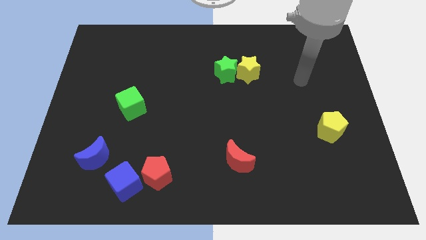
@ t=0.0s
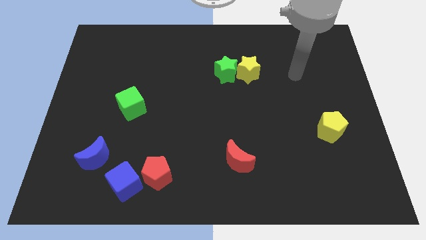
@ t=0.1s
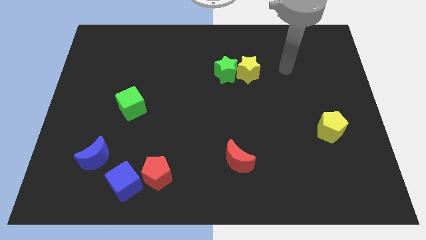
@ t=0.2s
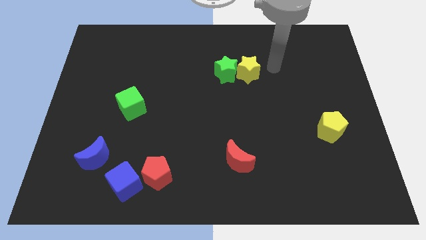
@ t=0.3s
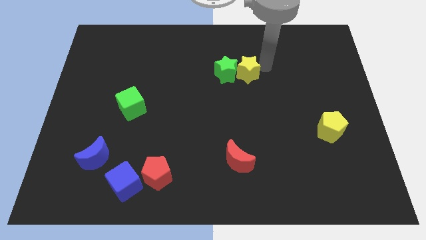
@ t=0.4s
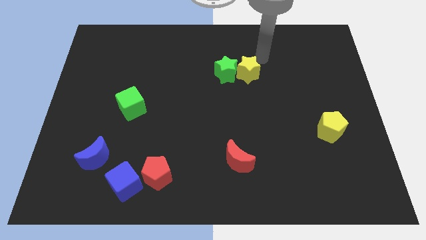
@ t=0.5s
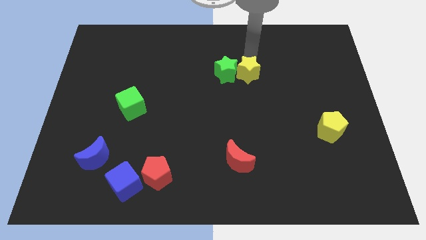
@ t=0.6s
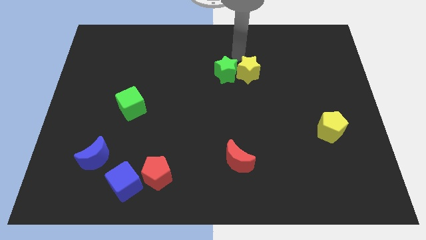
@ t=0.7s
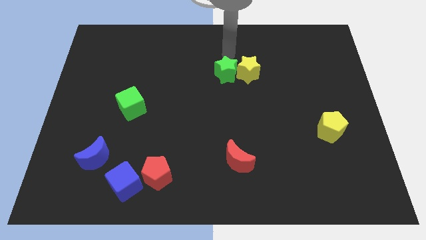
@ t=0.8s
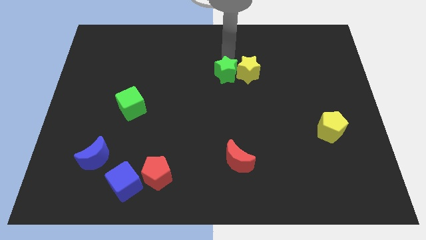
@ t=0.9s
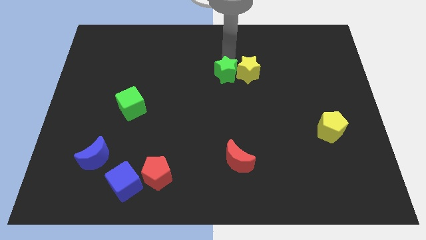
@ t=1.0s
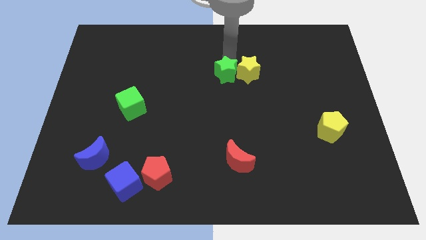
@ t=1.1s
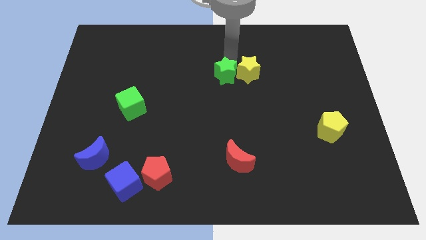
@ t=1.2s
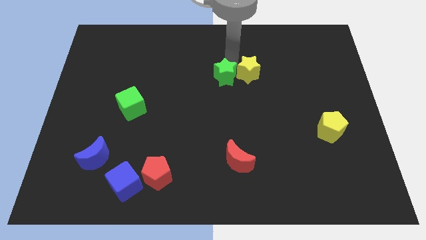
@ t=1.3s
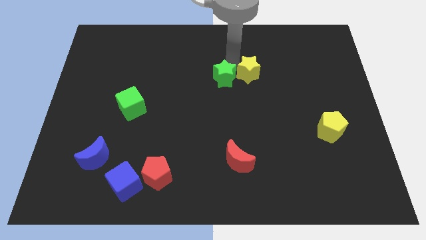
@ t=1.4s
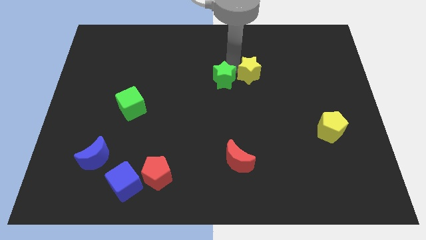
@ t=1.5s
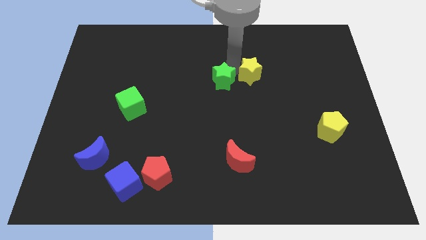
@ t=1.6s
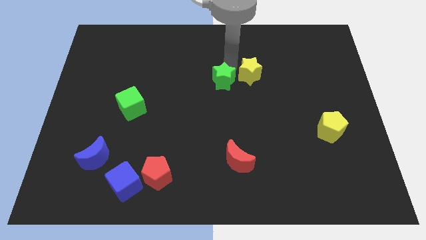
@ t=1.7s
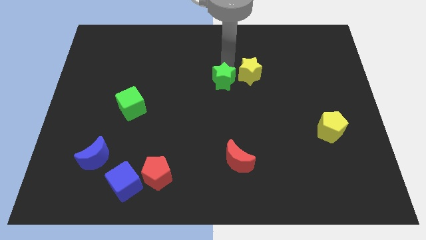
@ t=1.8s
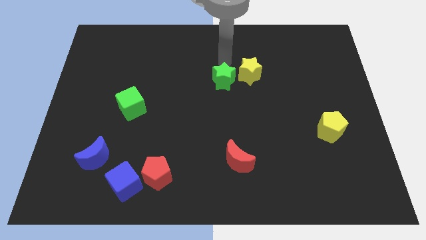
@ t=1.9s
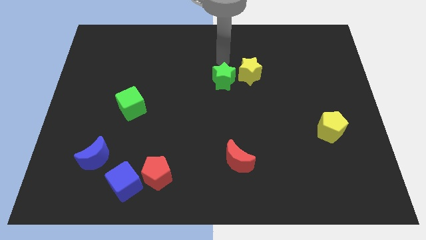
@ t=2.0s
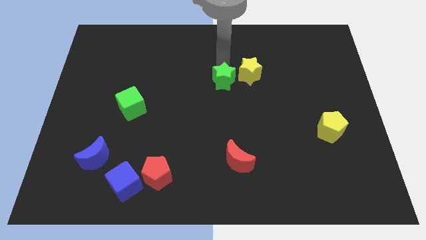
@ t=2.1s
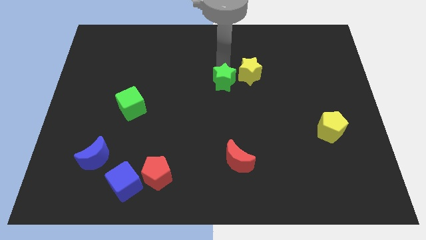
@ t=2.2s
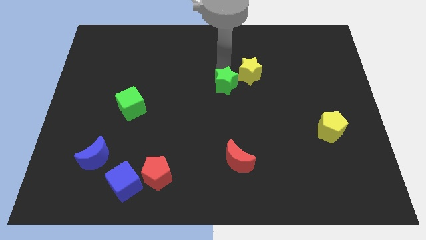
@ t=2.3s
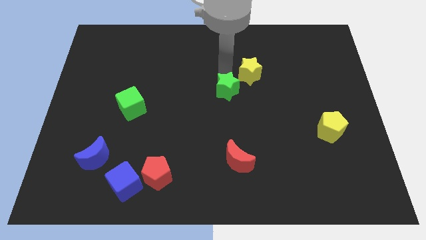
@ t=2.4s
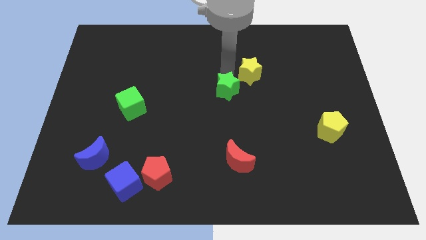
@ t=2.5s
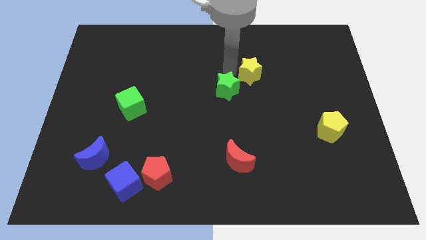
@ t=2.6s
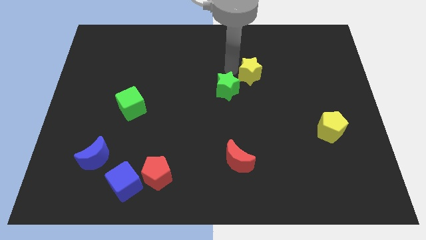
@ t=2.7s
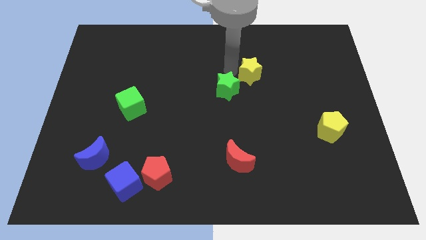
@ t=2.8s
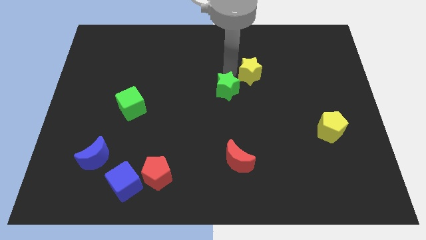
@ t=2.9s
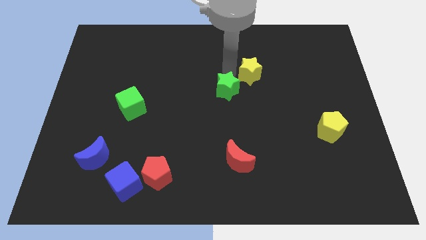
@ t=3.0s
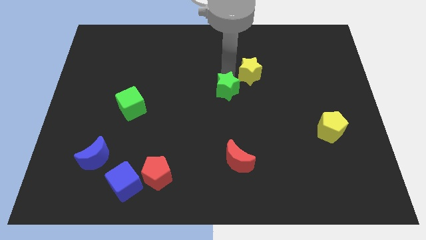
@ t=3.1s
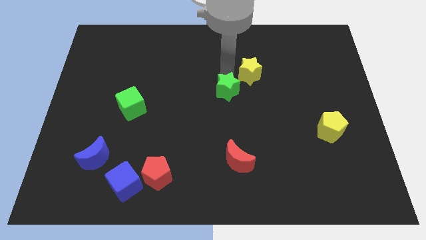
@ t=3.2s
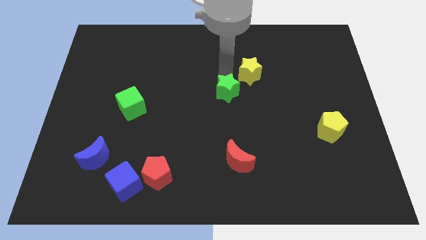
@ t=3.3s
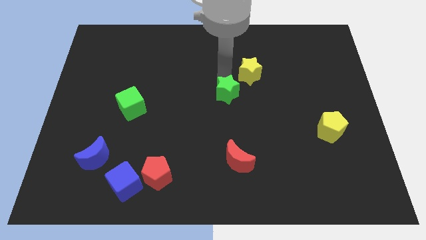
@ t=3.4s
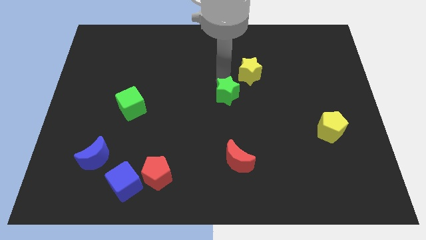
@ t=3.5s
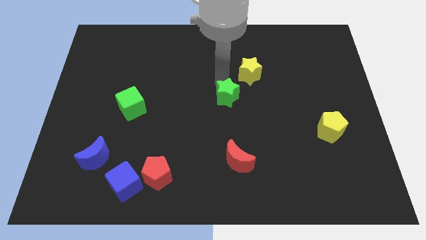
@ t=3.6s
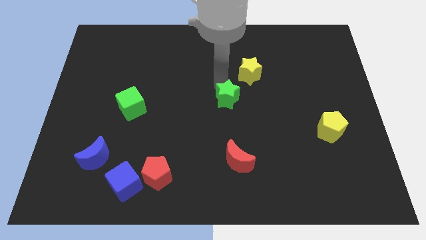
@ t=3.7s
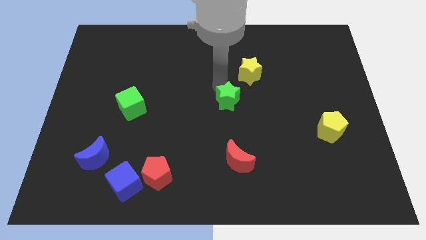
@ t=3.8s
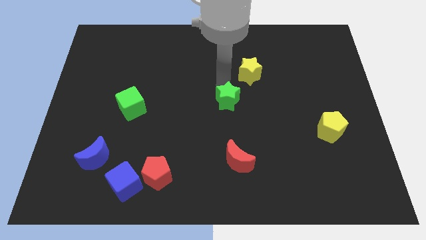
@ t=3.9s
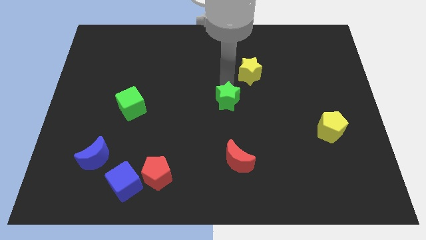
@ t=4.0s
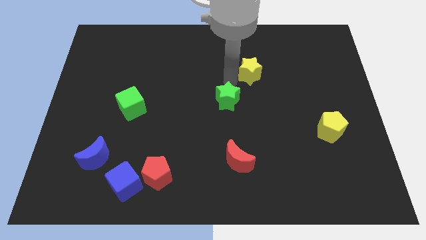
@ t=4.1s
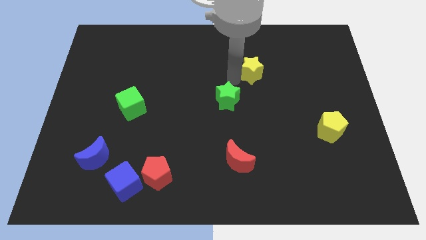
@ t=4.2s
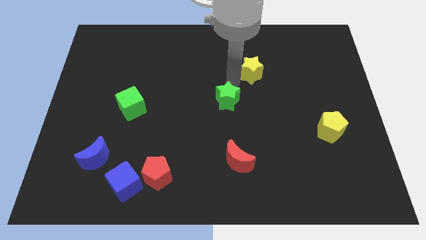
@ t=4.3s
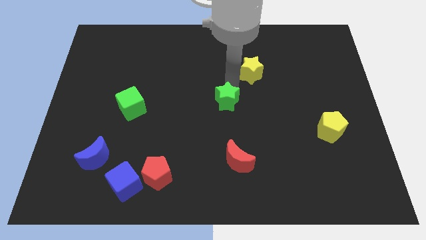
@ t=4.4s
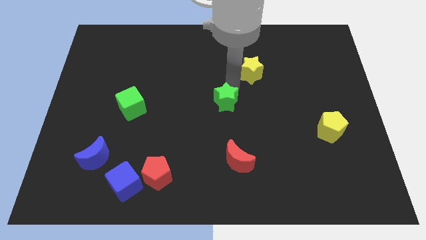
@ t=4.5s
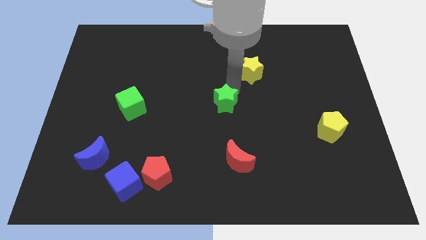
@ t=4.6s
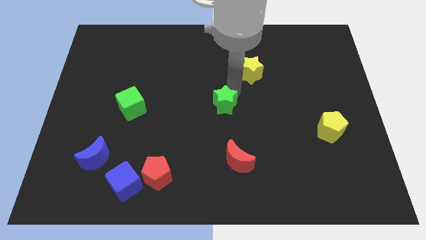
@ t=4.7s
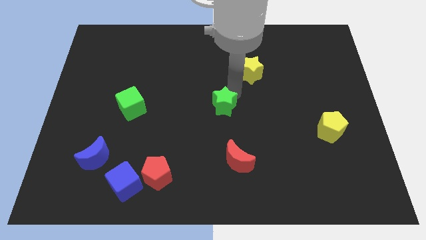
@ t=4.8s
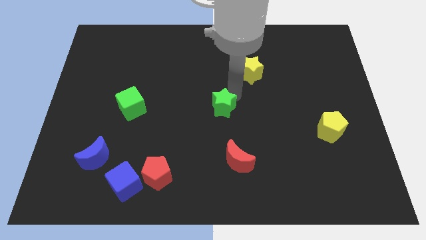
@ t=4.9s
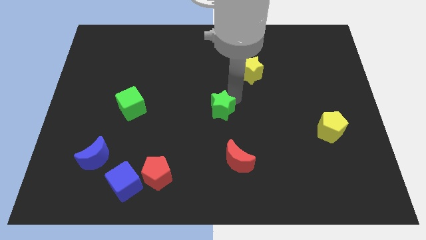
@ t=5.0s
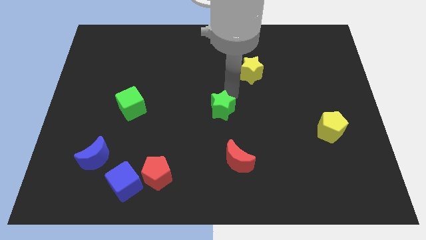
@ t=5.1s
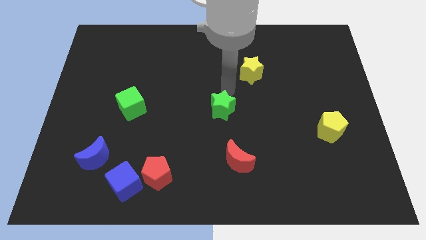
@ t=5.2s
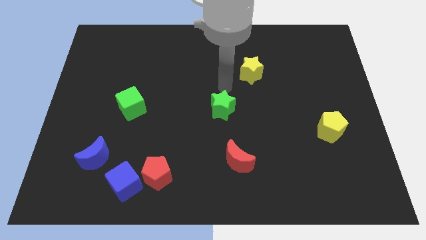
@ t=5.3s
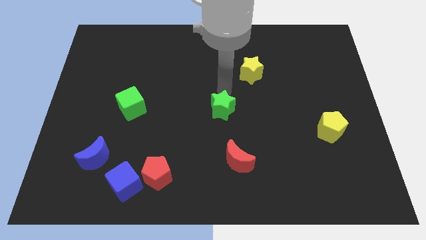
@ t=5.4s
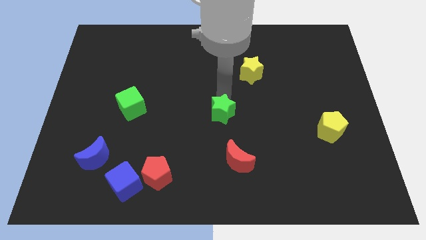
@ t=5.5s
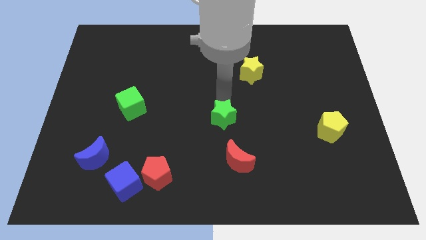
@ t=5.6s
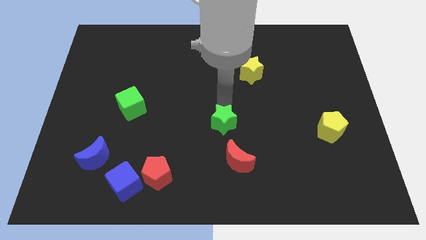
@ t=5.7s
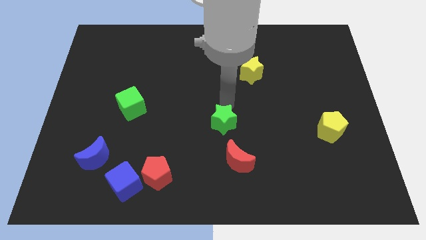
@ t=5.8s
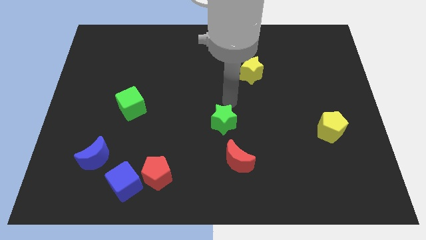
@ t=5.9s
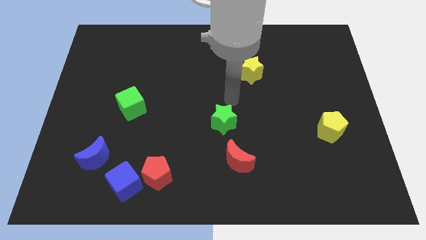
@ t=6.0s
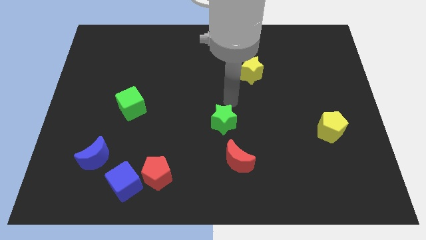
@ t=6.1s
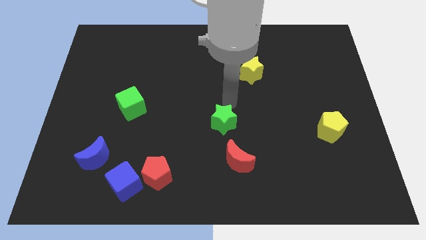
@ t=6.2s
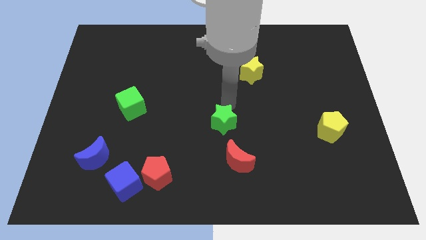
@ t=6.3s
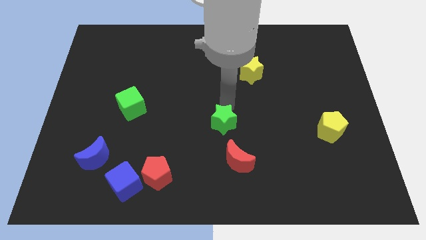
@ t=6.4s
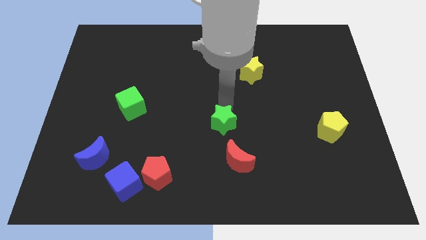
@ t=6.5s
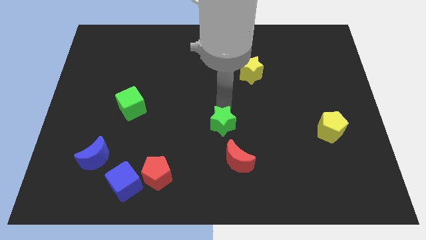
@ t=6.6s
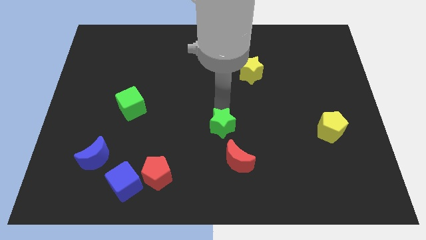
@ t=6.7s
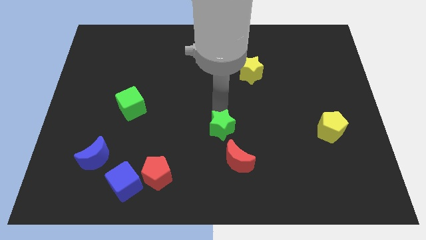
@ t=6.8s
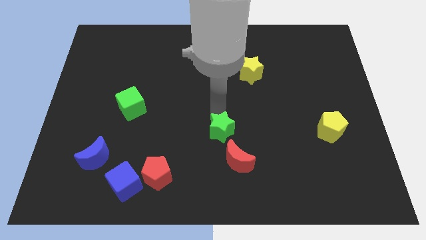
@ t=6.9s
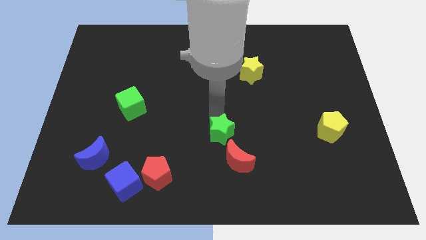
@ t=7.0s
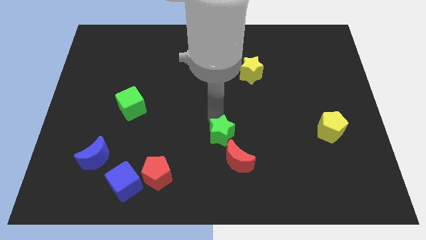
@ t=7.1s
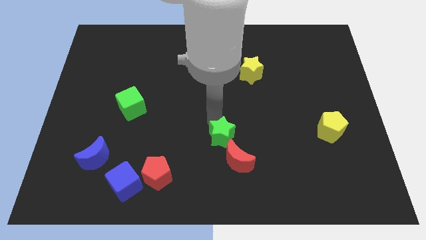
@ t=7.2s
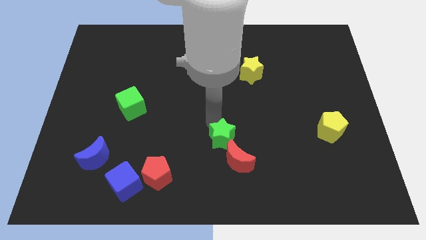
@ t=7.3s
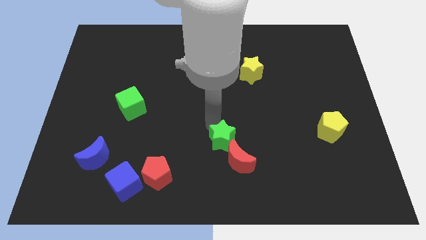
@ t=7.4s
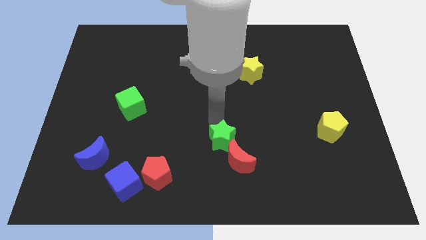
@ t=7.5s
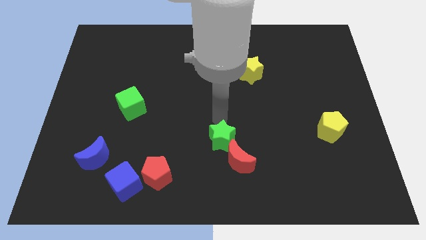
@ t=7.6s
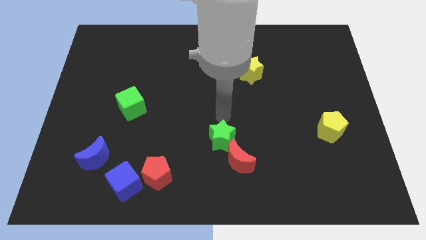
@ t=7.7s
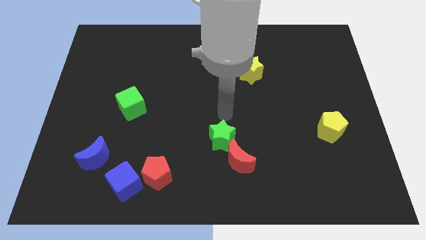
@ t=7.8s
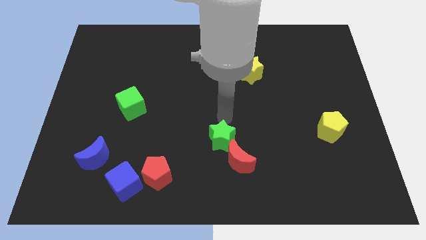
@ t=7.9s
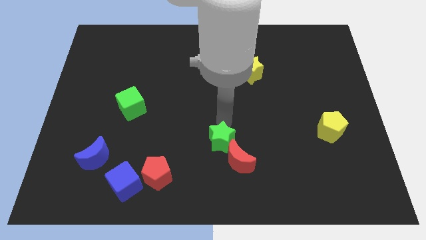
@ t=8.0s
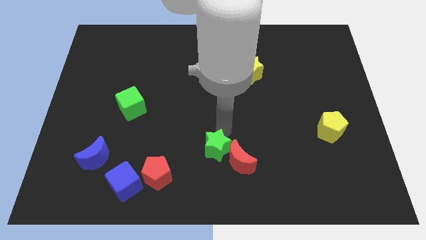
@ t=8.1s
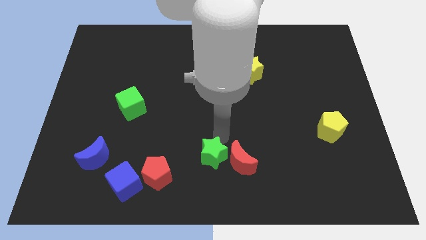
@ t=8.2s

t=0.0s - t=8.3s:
put the green star to the bottom
